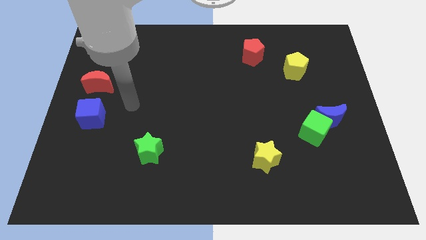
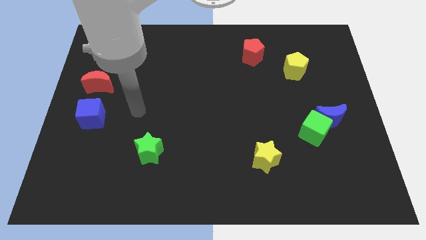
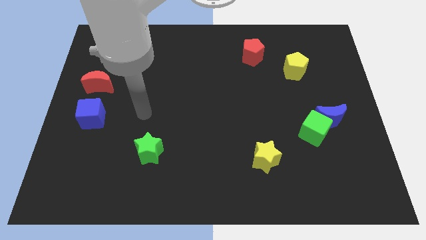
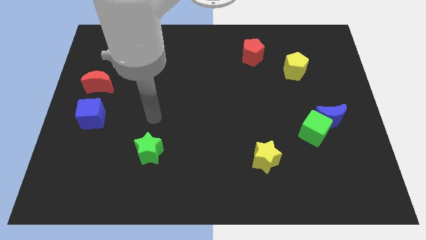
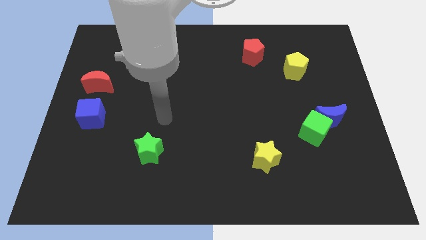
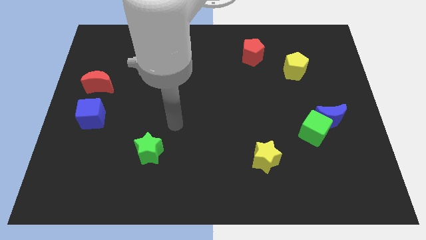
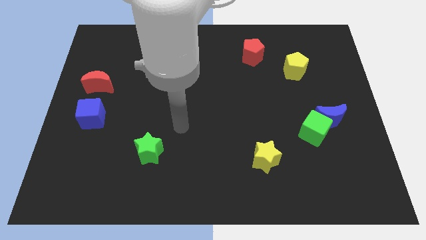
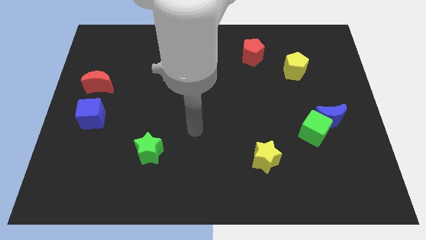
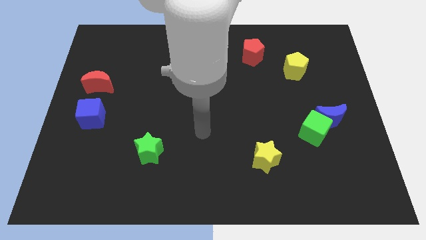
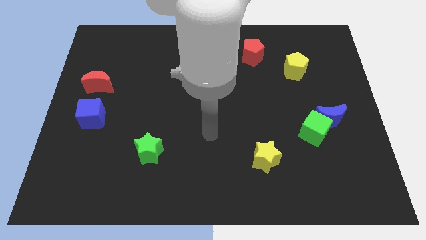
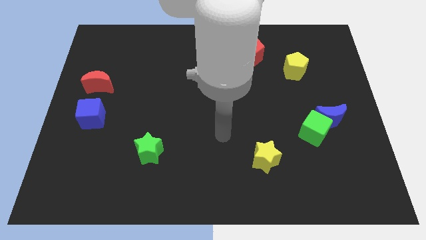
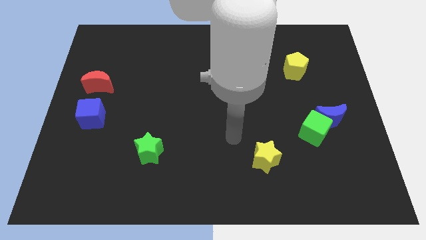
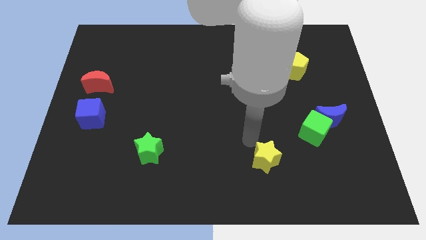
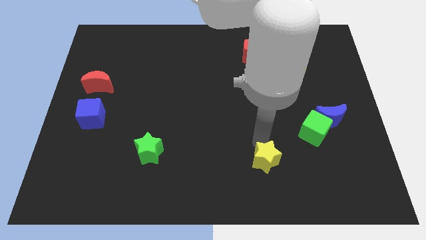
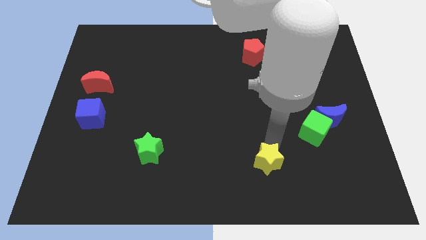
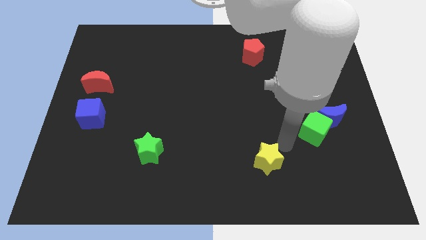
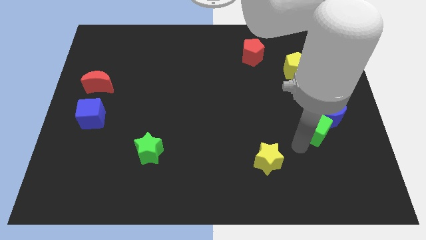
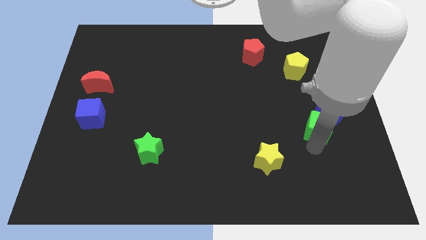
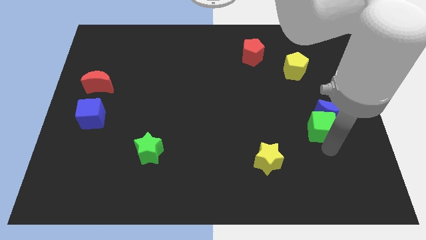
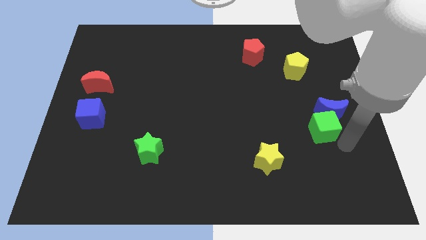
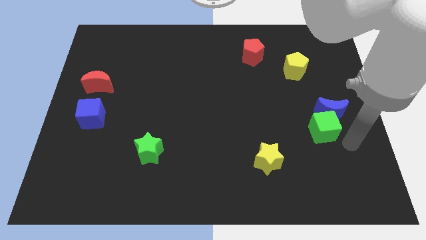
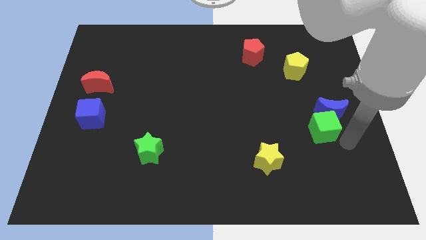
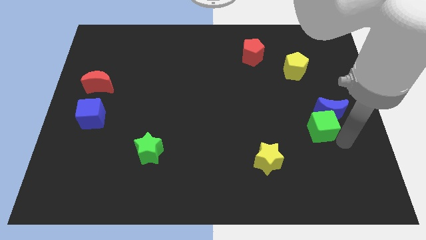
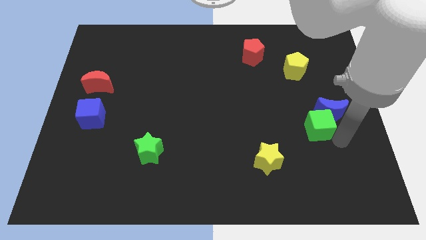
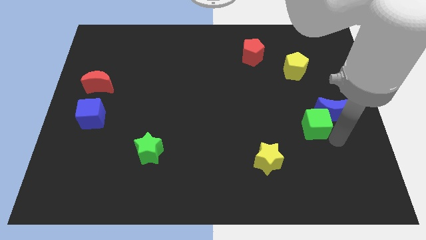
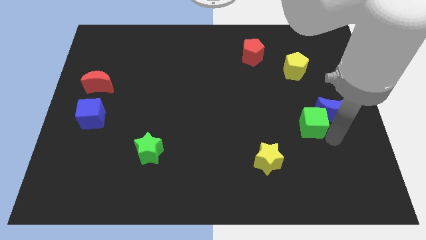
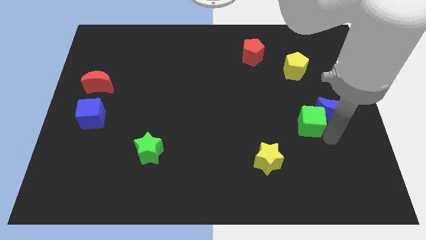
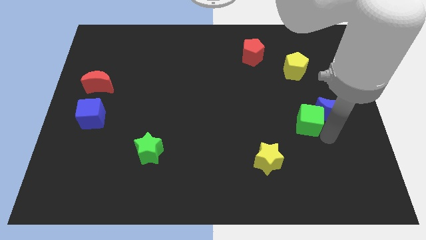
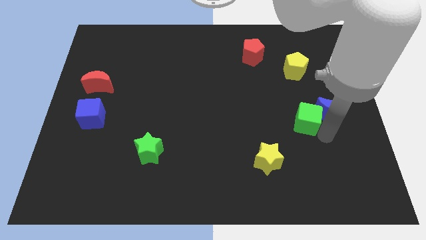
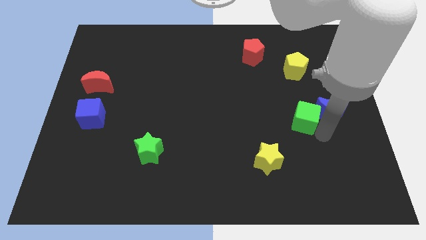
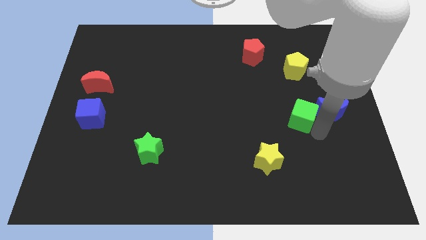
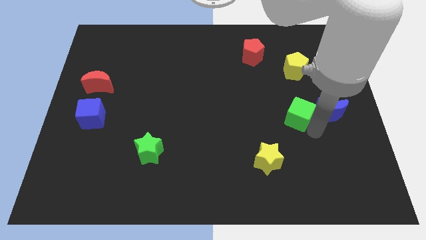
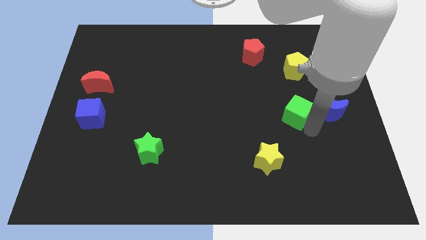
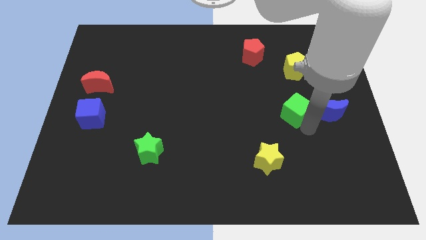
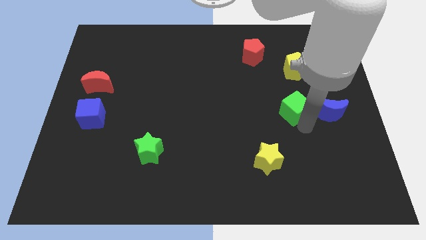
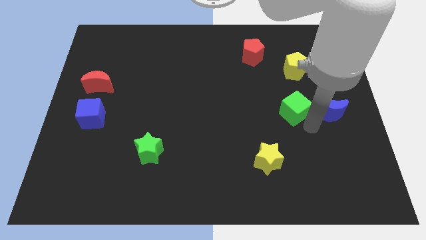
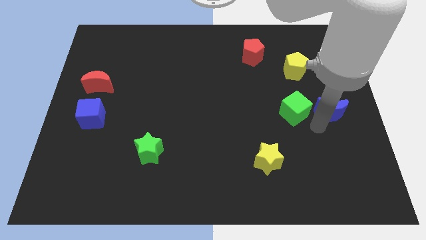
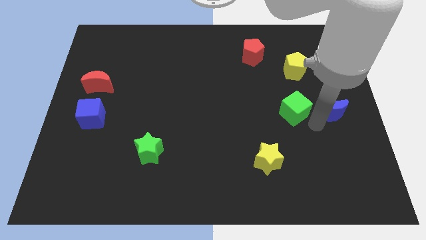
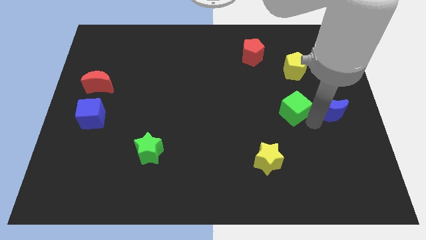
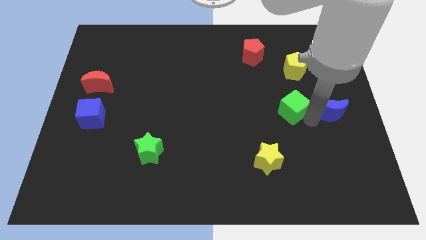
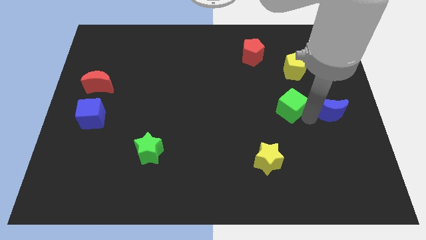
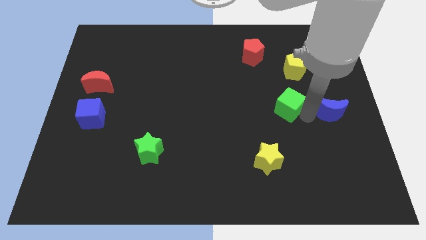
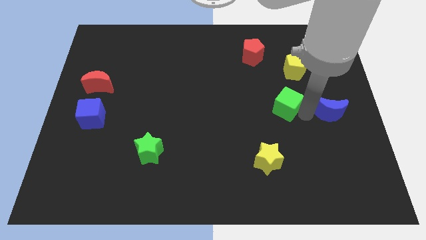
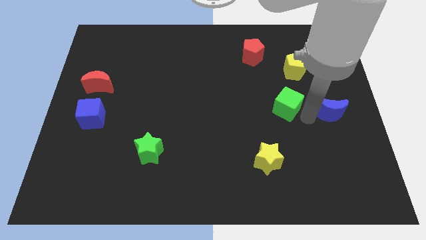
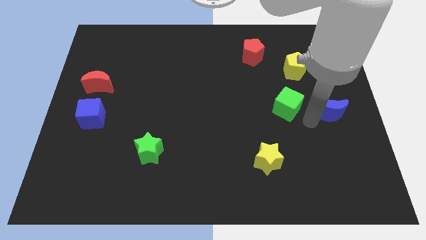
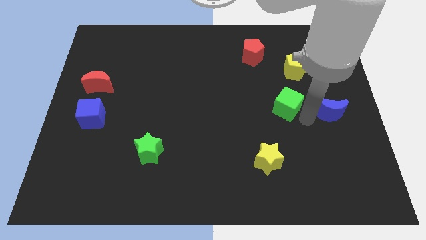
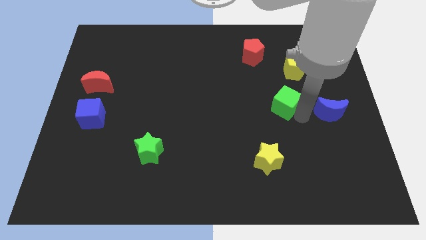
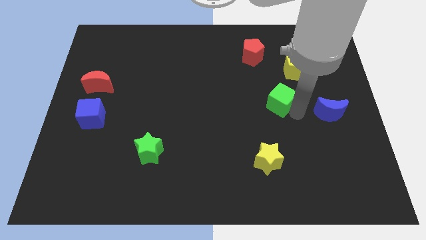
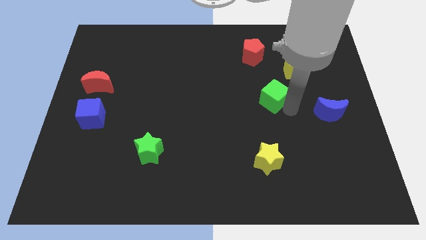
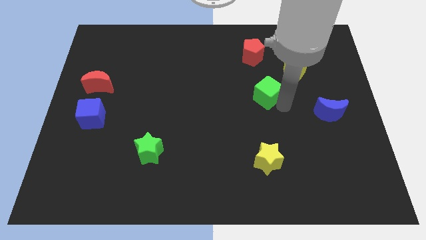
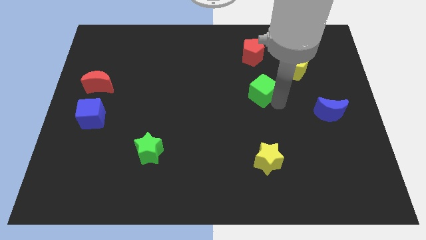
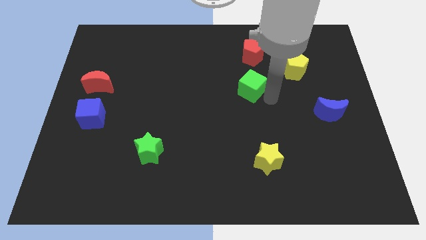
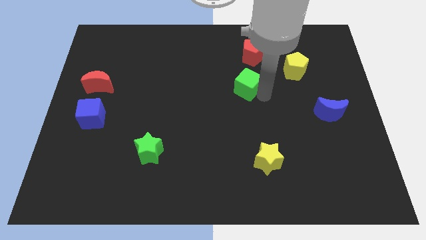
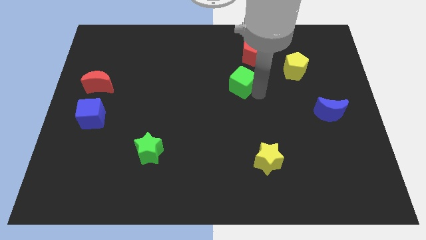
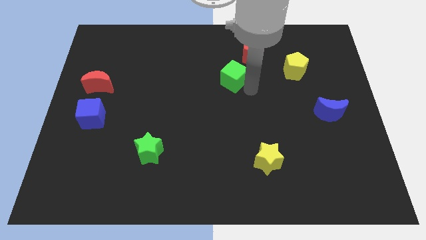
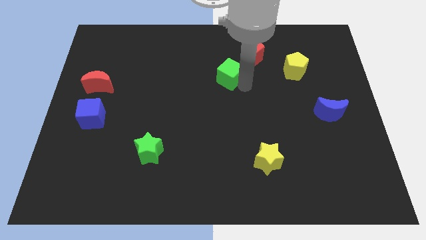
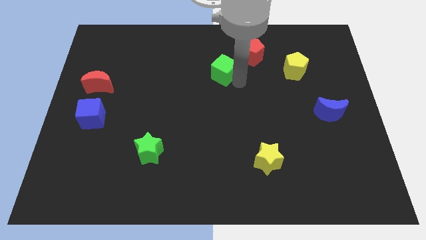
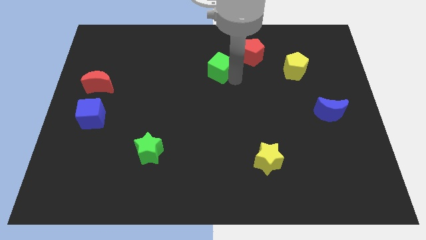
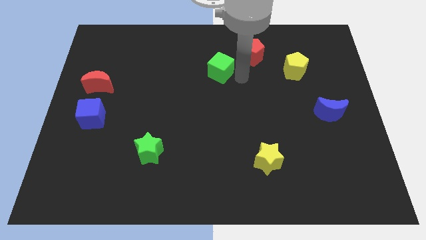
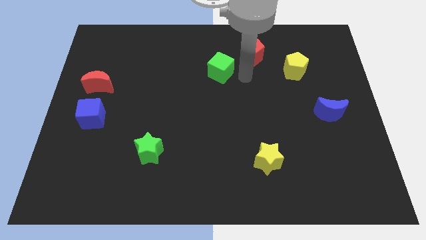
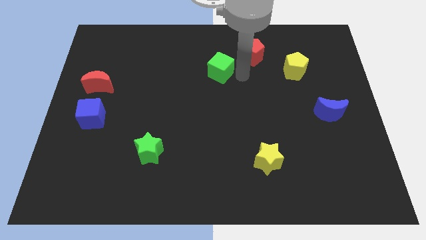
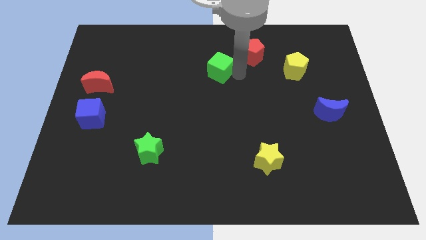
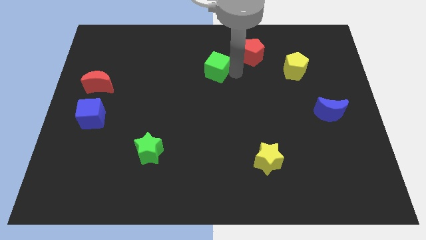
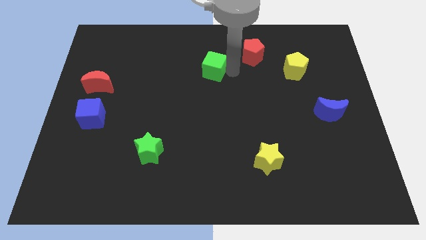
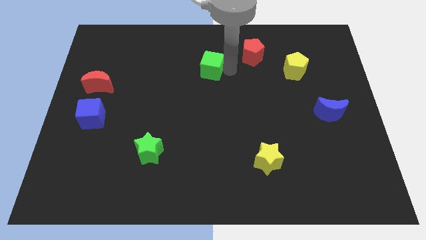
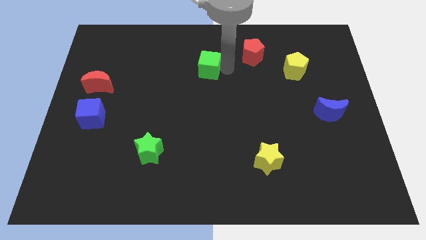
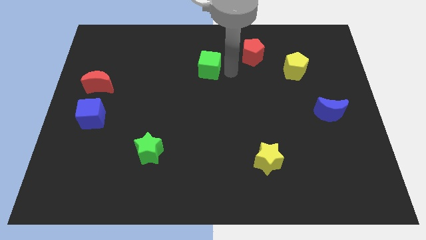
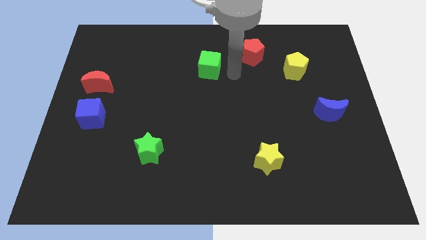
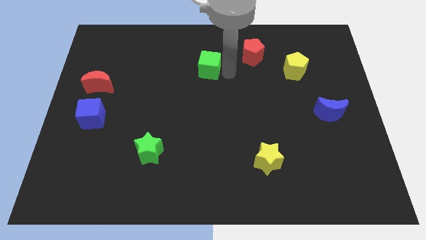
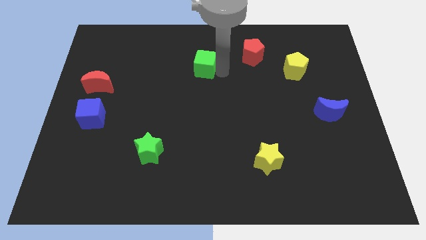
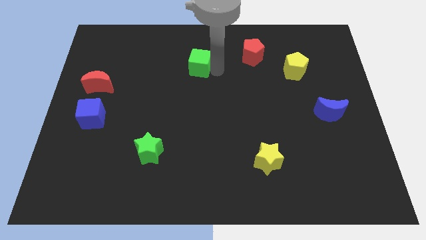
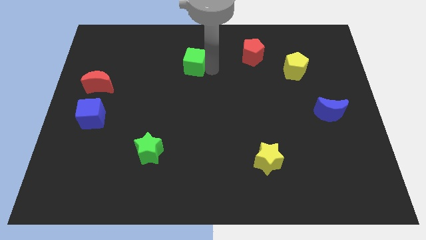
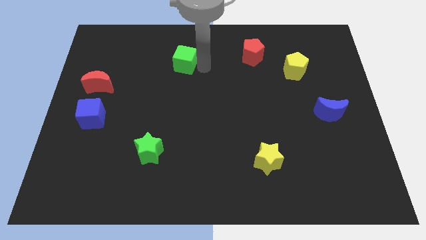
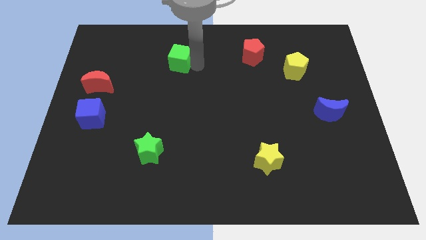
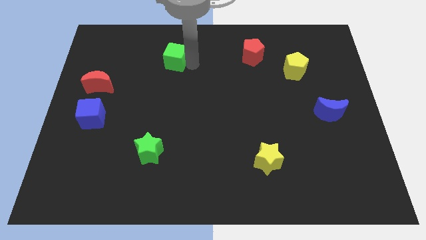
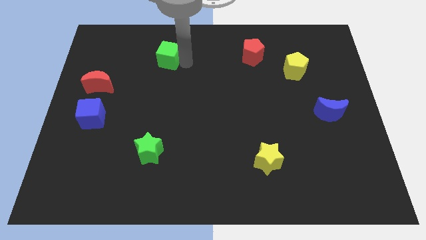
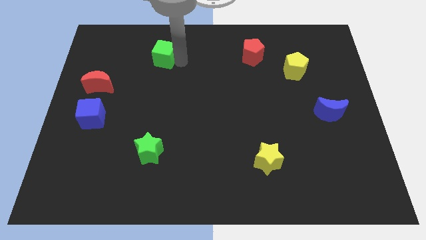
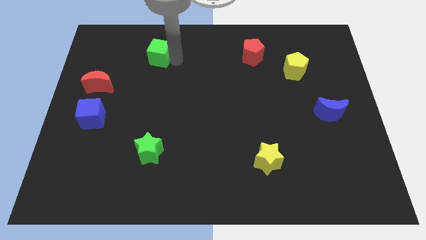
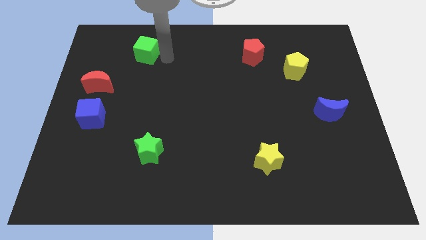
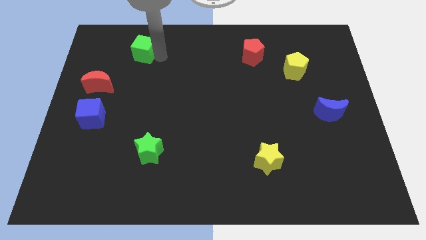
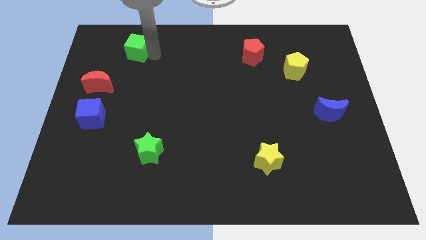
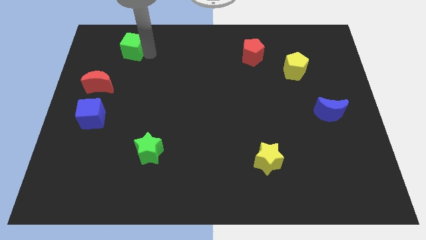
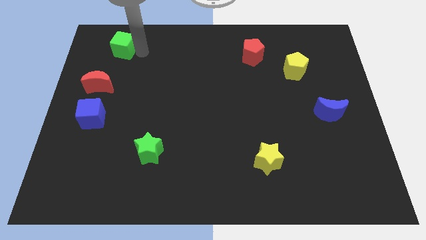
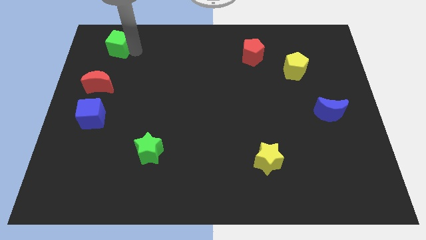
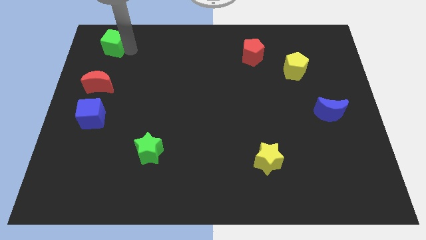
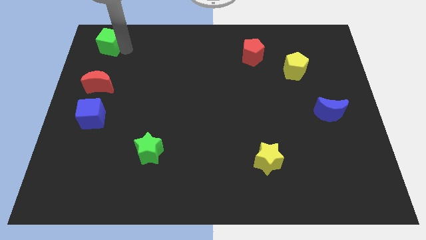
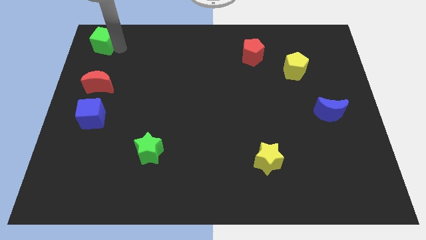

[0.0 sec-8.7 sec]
put the green cube to the top left corner
